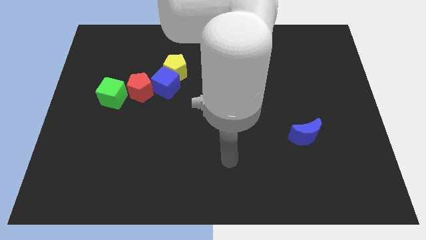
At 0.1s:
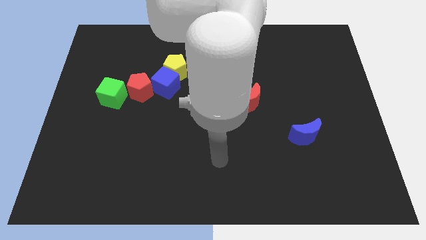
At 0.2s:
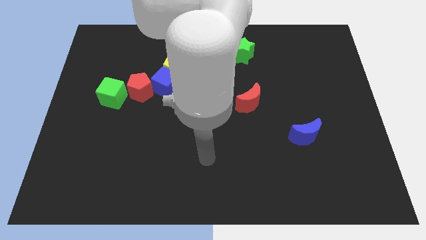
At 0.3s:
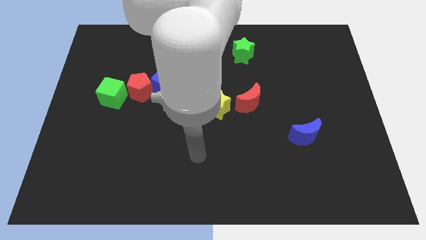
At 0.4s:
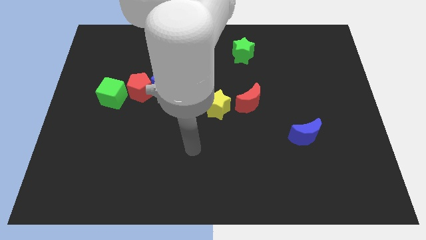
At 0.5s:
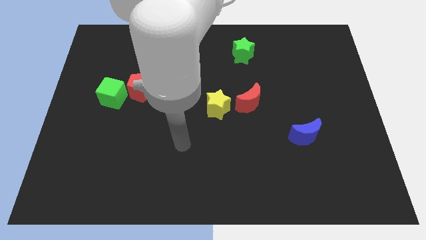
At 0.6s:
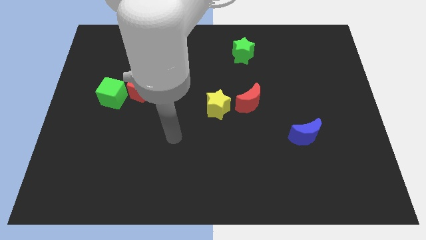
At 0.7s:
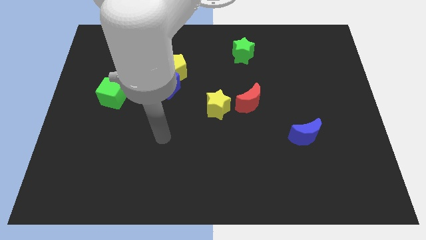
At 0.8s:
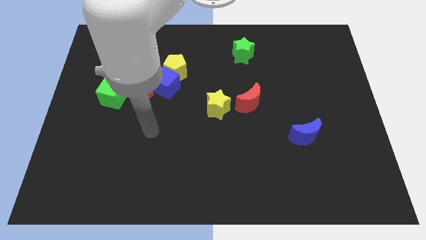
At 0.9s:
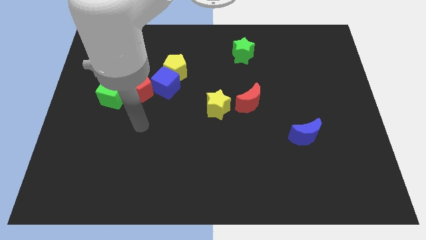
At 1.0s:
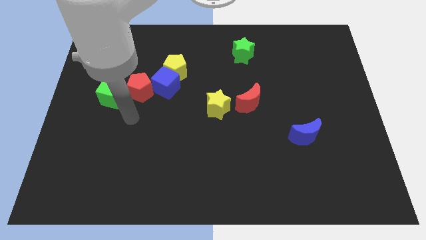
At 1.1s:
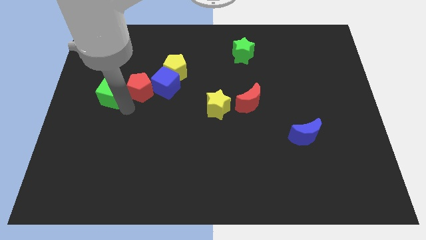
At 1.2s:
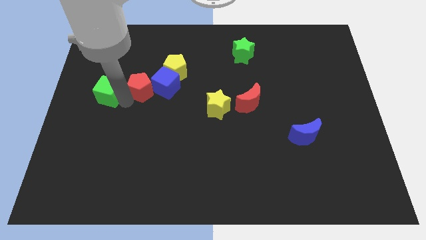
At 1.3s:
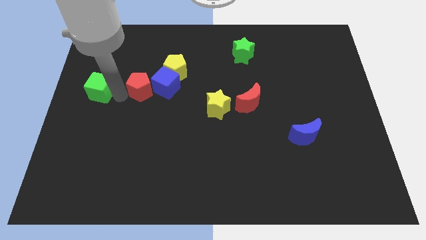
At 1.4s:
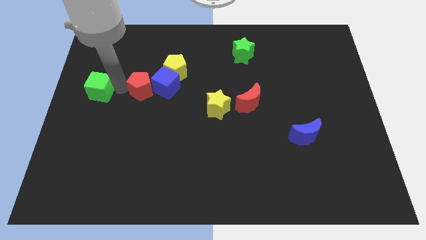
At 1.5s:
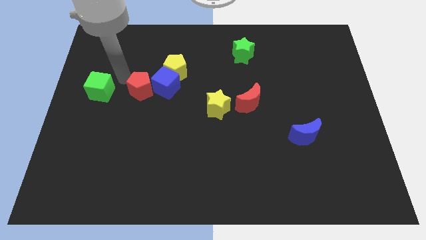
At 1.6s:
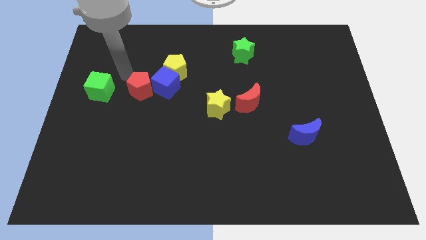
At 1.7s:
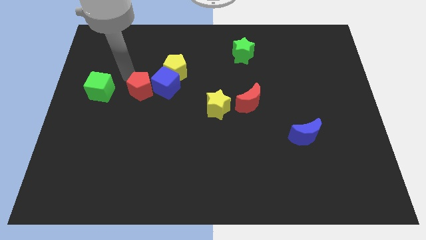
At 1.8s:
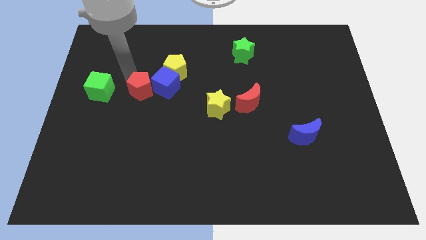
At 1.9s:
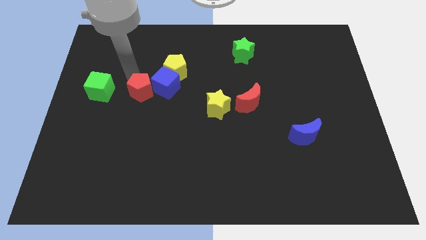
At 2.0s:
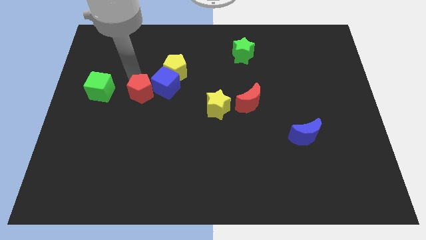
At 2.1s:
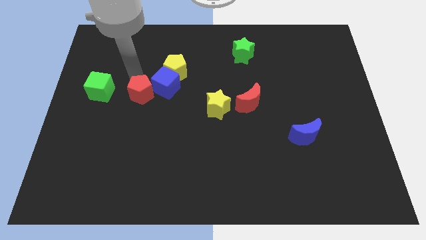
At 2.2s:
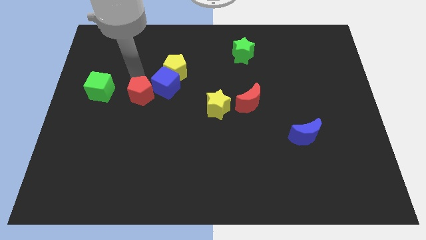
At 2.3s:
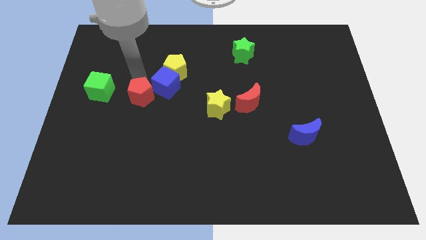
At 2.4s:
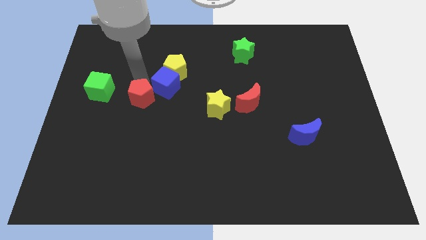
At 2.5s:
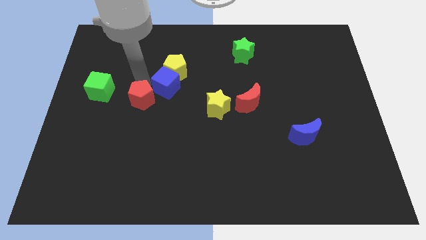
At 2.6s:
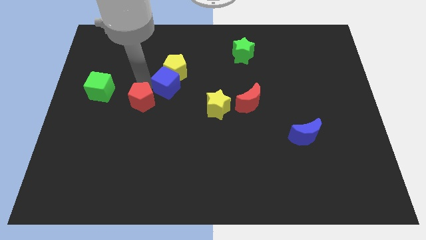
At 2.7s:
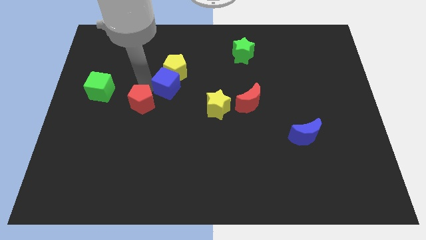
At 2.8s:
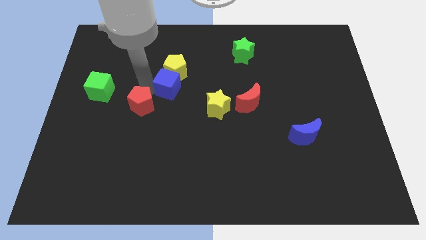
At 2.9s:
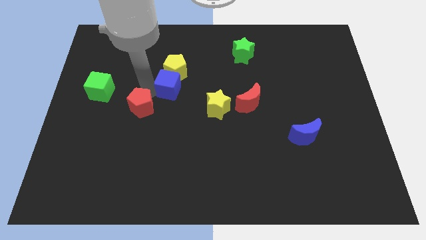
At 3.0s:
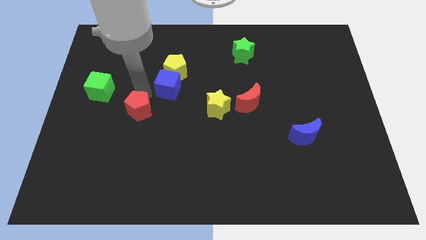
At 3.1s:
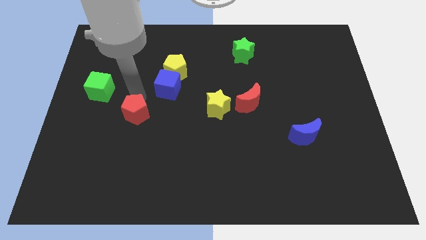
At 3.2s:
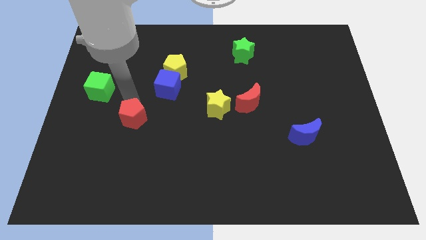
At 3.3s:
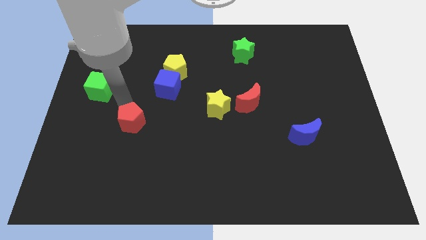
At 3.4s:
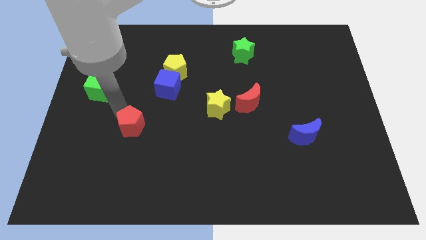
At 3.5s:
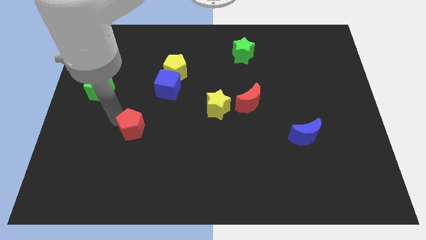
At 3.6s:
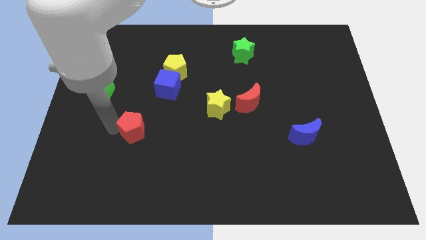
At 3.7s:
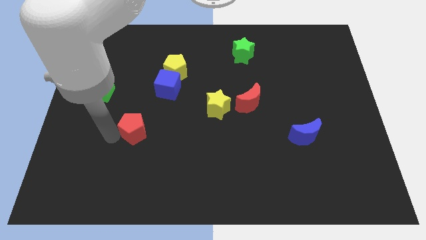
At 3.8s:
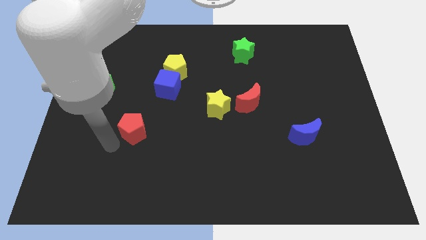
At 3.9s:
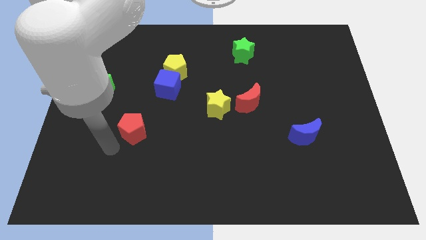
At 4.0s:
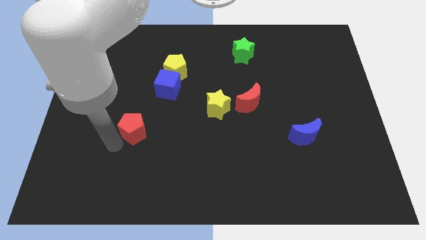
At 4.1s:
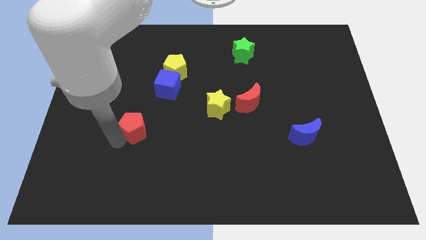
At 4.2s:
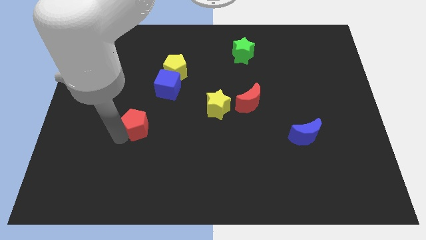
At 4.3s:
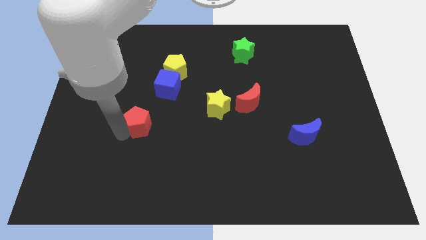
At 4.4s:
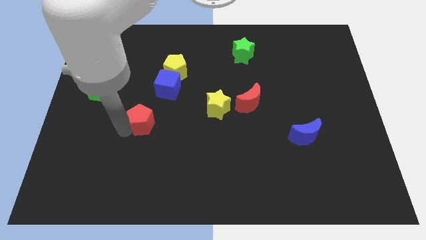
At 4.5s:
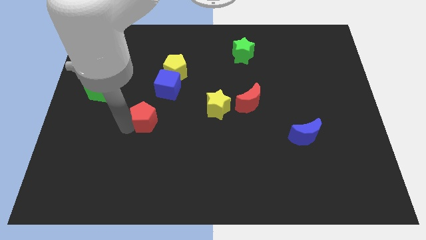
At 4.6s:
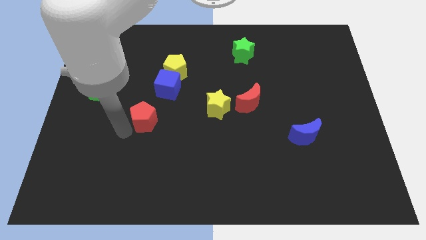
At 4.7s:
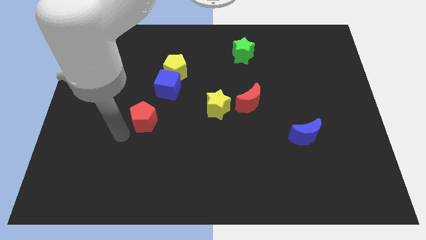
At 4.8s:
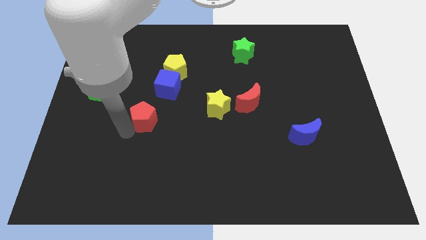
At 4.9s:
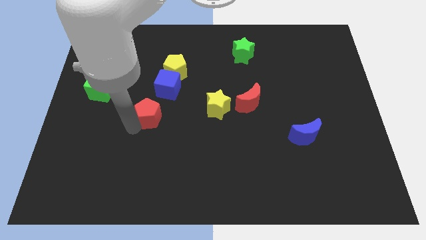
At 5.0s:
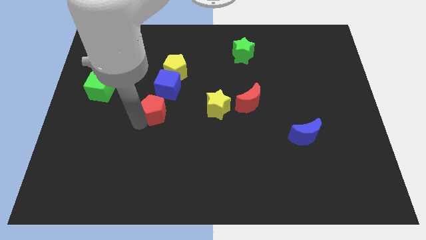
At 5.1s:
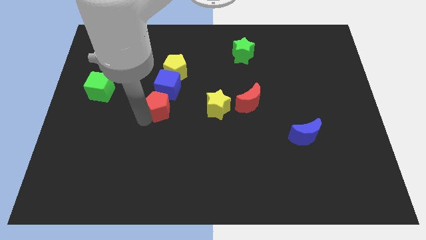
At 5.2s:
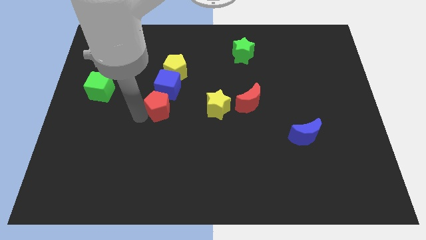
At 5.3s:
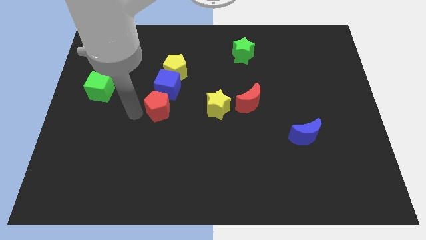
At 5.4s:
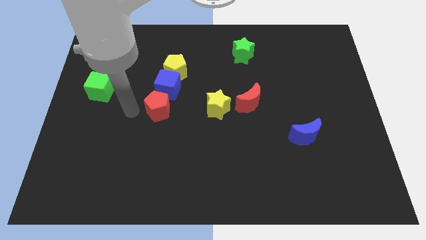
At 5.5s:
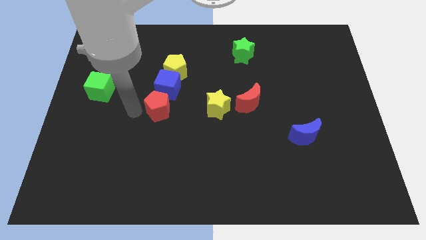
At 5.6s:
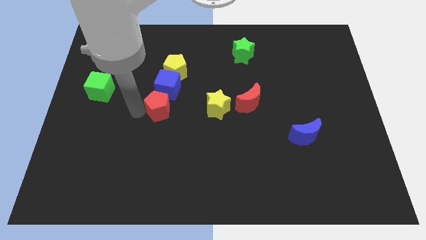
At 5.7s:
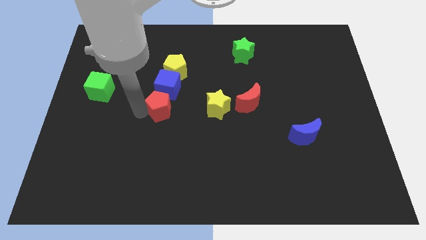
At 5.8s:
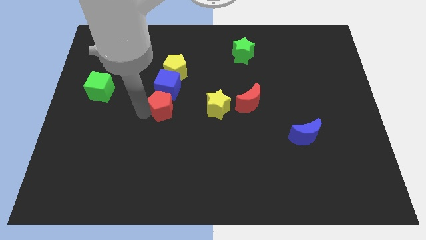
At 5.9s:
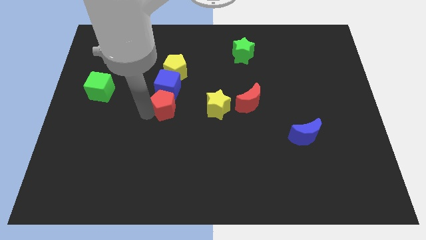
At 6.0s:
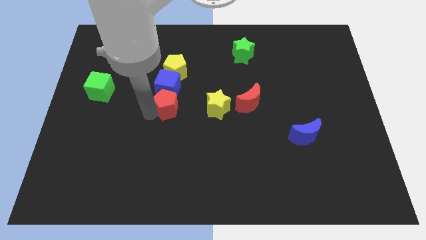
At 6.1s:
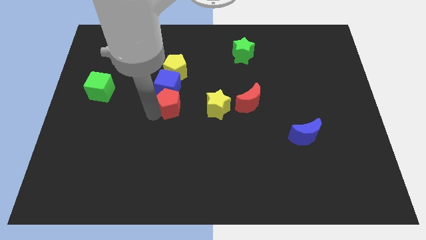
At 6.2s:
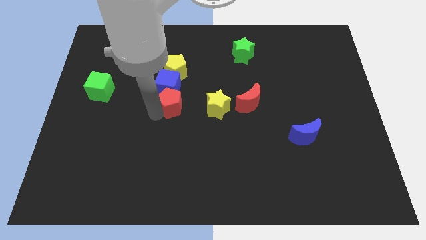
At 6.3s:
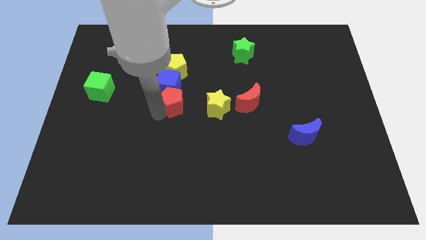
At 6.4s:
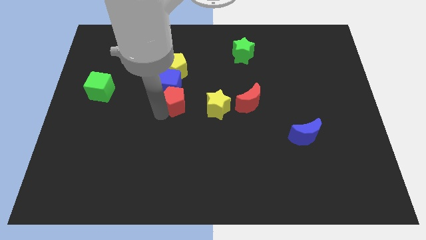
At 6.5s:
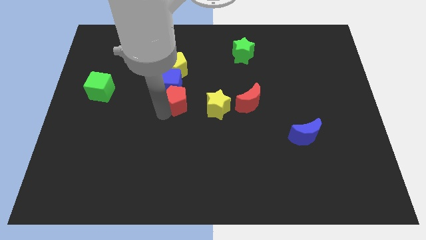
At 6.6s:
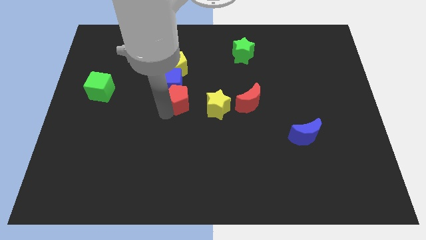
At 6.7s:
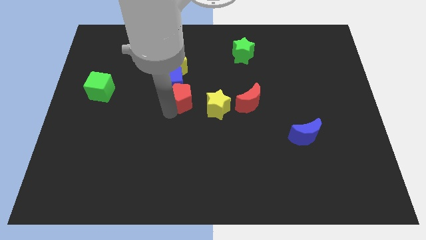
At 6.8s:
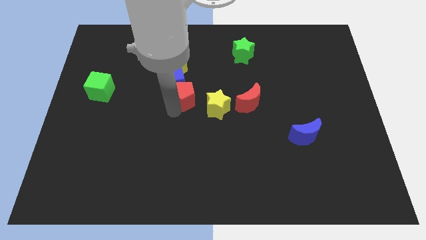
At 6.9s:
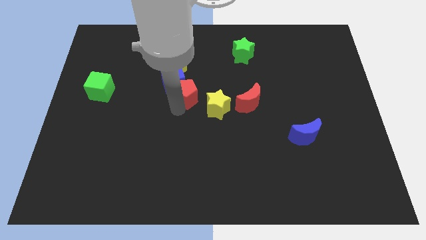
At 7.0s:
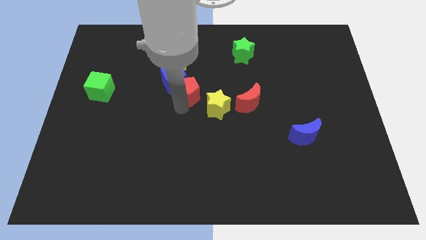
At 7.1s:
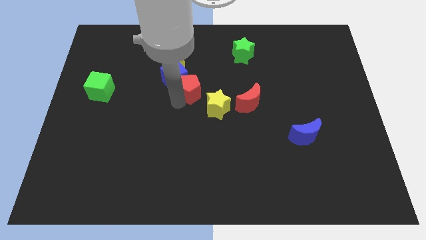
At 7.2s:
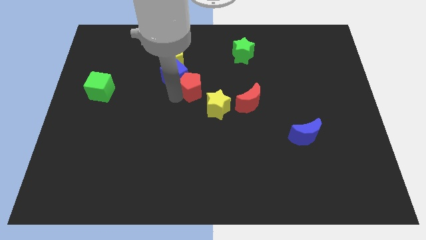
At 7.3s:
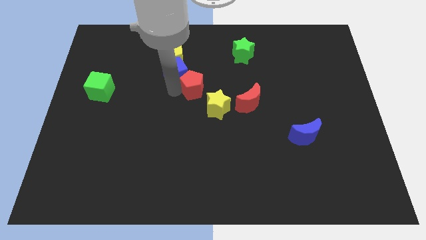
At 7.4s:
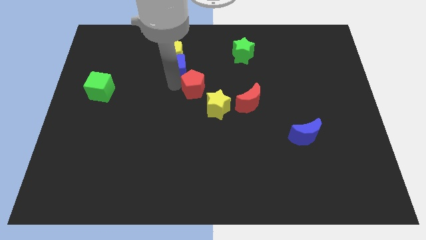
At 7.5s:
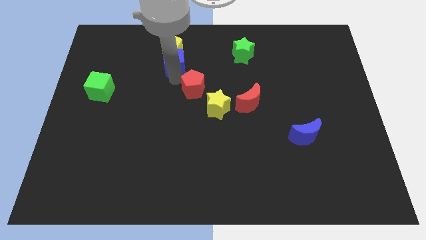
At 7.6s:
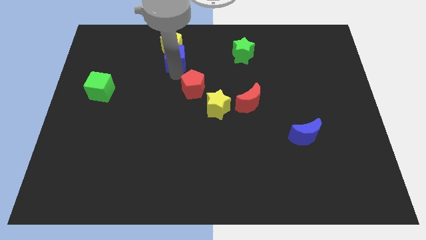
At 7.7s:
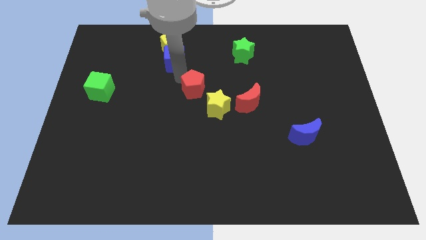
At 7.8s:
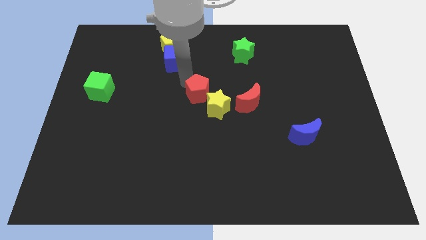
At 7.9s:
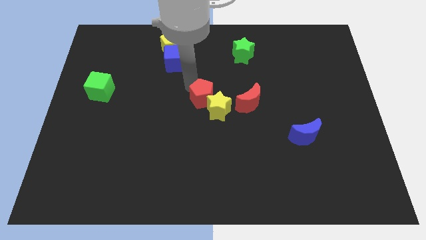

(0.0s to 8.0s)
slide the red pentagon to the yellow star
